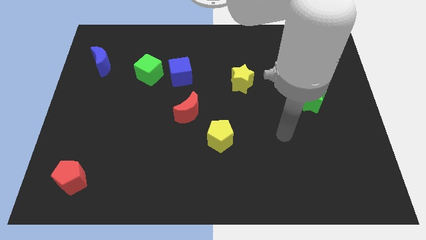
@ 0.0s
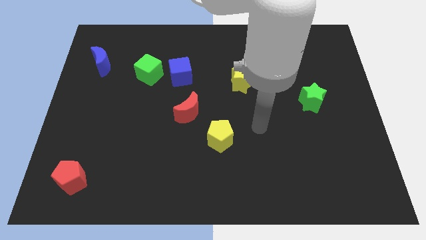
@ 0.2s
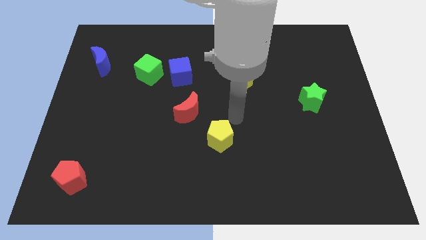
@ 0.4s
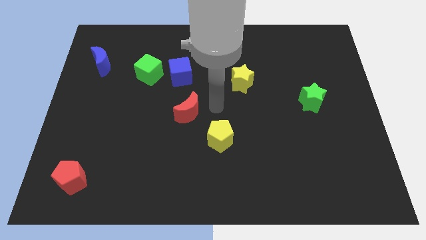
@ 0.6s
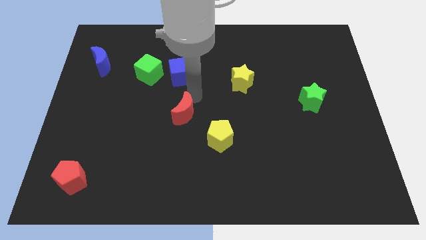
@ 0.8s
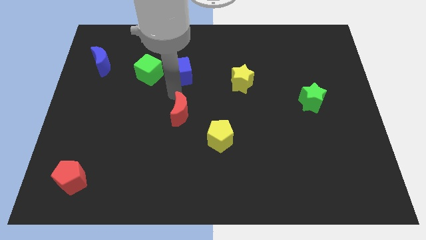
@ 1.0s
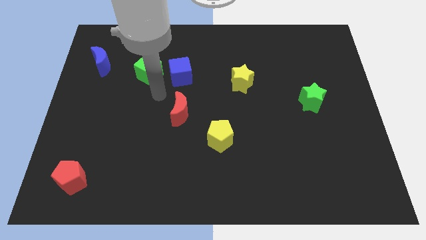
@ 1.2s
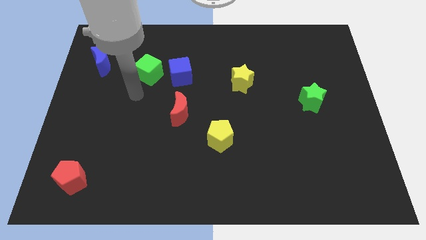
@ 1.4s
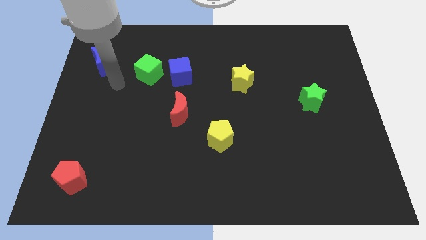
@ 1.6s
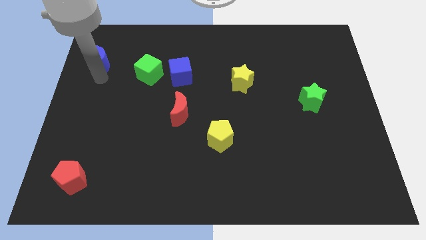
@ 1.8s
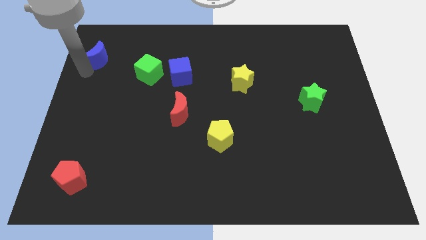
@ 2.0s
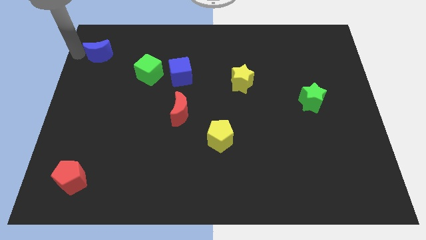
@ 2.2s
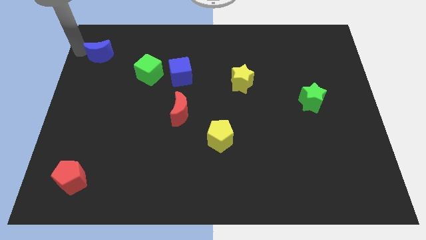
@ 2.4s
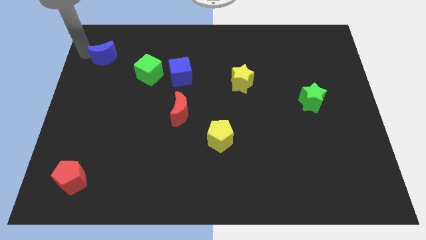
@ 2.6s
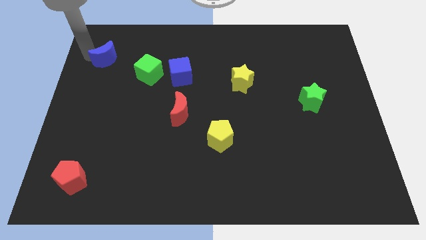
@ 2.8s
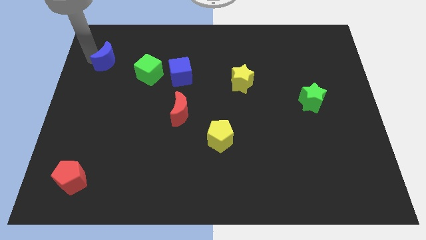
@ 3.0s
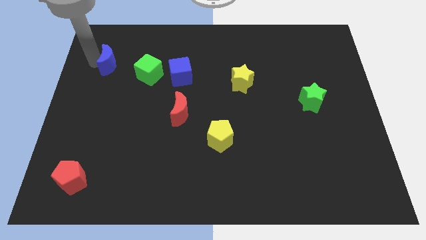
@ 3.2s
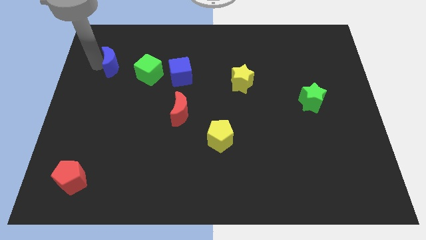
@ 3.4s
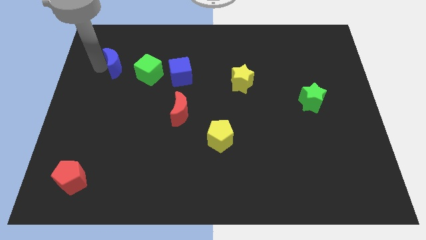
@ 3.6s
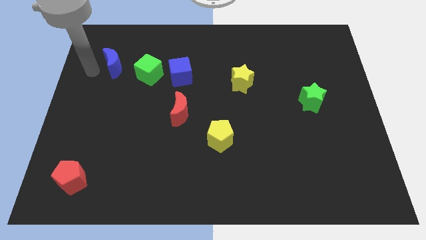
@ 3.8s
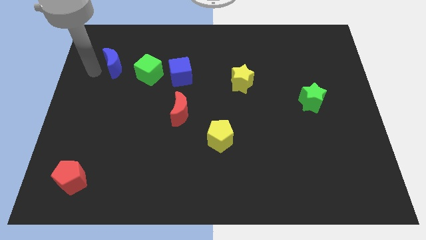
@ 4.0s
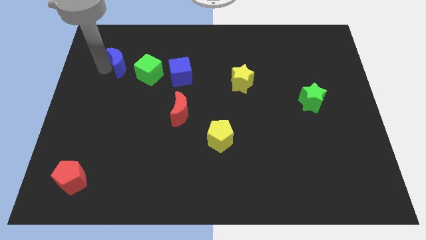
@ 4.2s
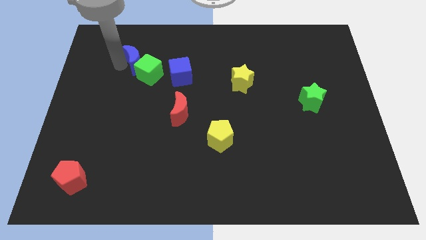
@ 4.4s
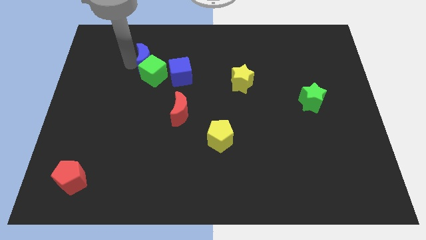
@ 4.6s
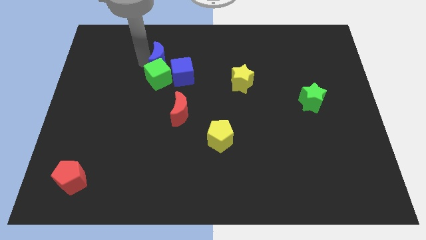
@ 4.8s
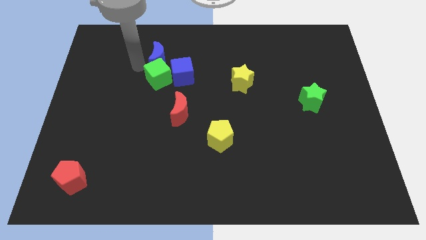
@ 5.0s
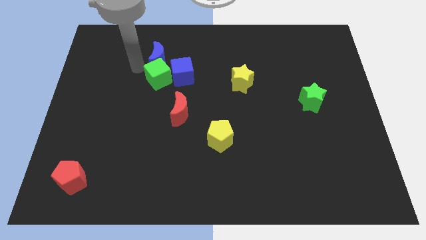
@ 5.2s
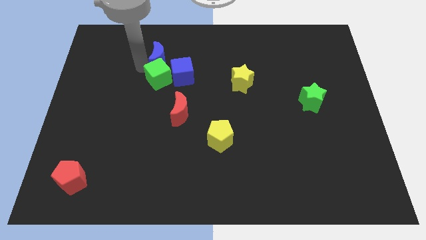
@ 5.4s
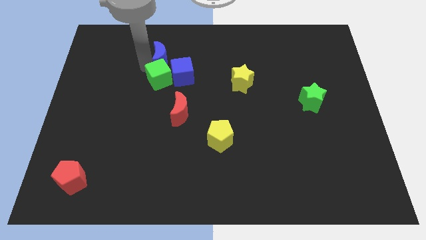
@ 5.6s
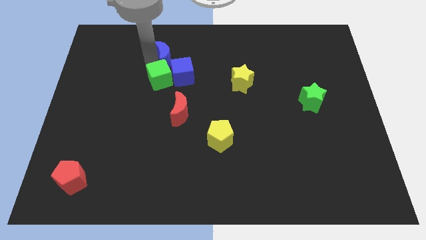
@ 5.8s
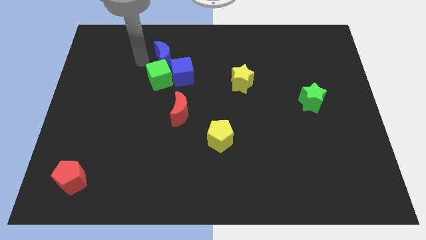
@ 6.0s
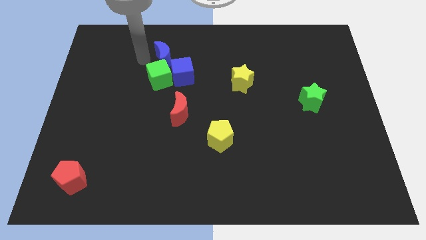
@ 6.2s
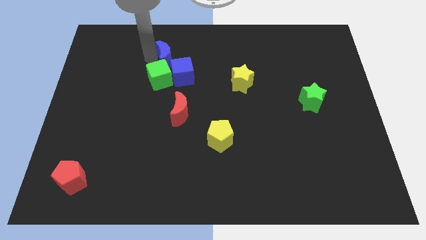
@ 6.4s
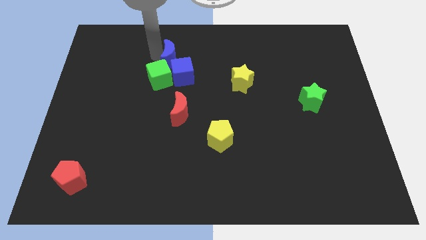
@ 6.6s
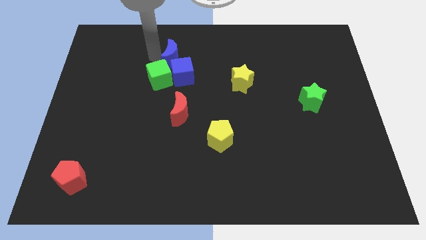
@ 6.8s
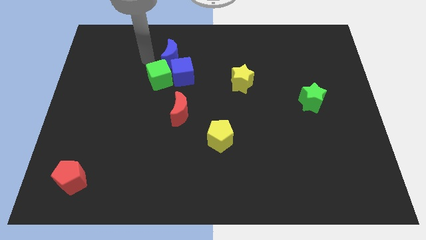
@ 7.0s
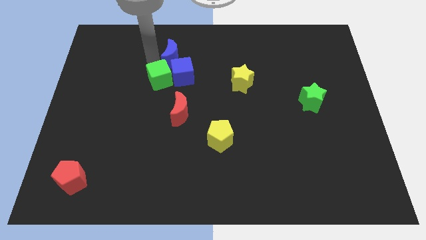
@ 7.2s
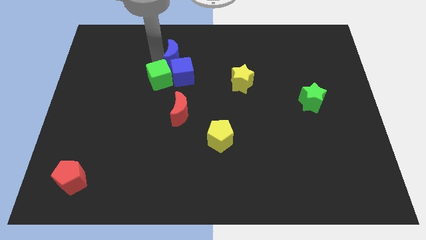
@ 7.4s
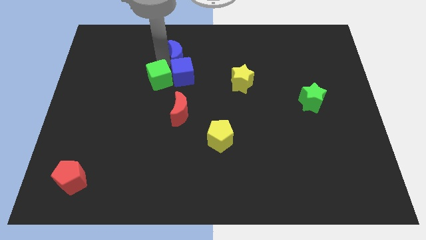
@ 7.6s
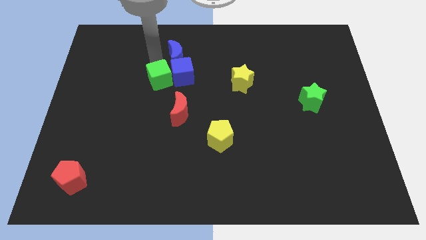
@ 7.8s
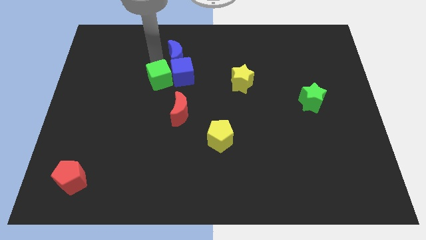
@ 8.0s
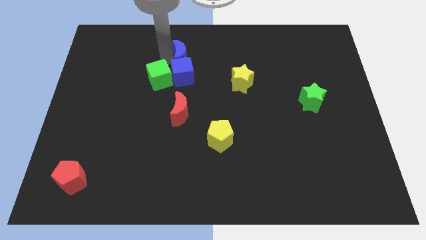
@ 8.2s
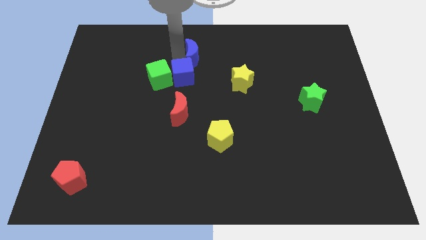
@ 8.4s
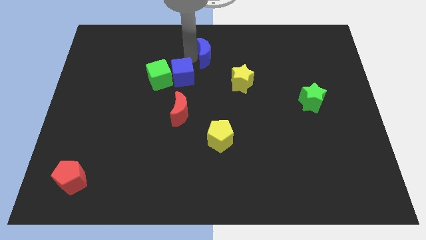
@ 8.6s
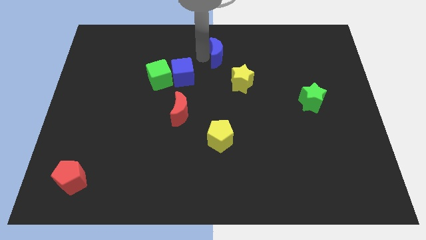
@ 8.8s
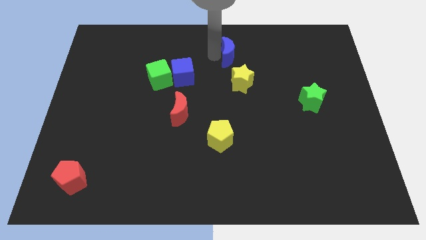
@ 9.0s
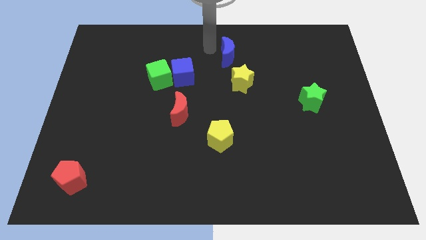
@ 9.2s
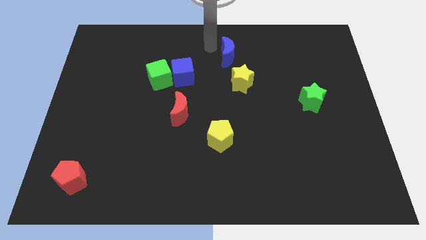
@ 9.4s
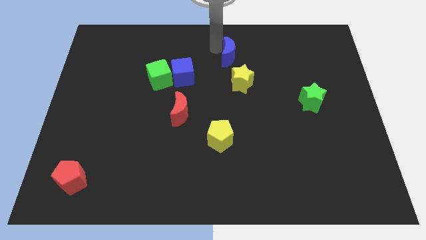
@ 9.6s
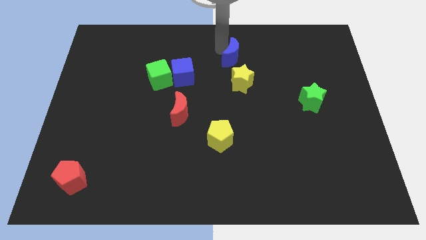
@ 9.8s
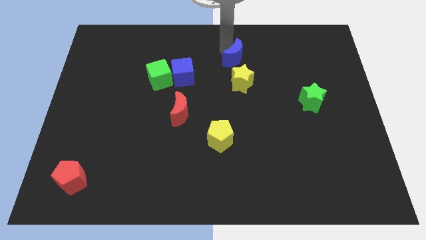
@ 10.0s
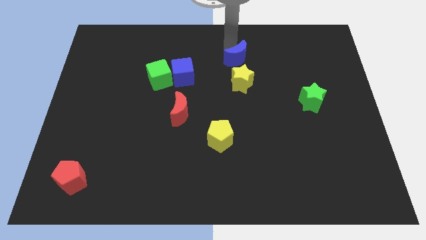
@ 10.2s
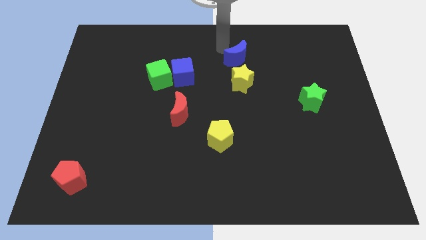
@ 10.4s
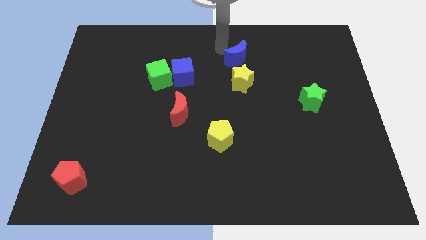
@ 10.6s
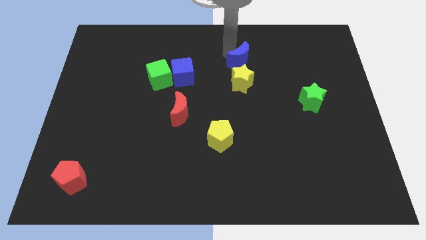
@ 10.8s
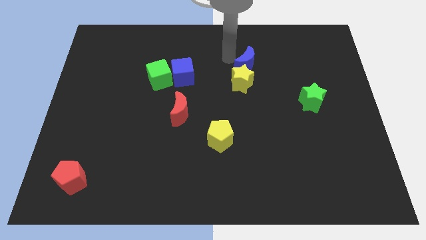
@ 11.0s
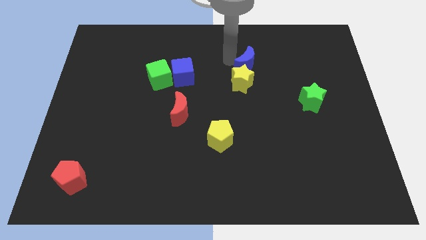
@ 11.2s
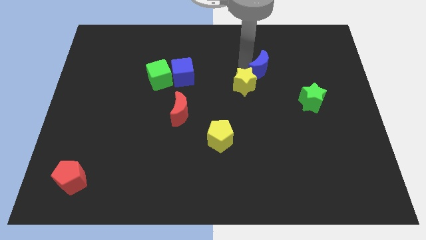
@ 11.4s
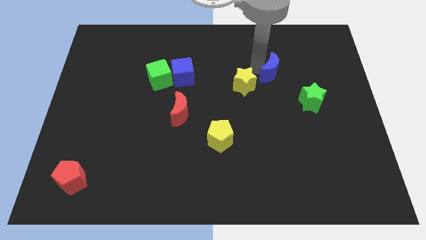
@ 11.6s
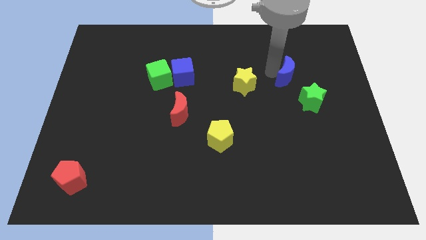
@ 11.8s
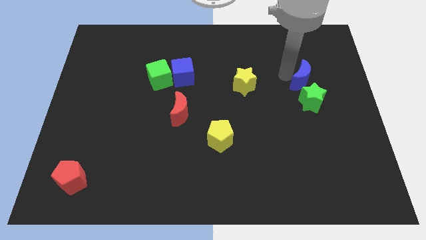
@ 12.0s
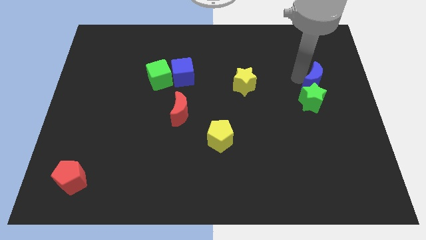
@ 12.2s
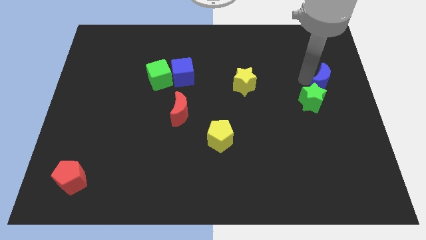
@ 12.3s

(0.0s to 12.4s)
move the blue moon to the right side of the board
